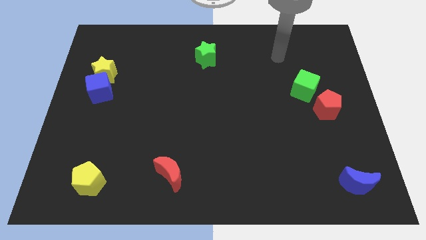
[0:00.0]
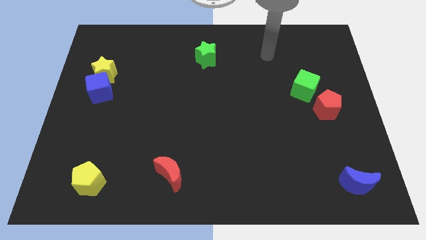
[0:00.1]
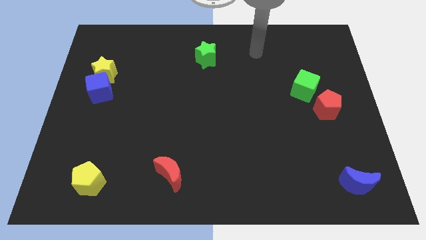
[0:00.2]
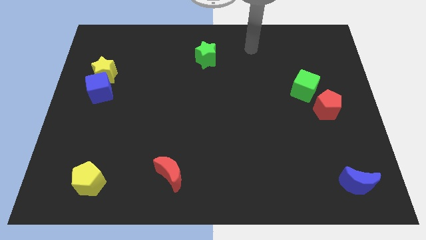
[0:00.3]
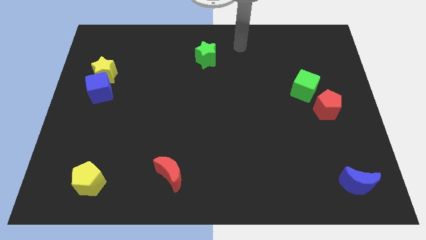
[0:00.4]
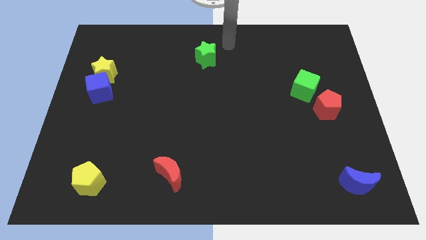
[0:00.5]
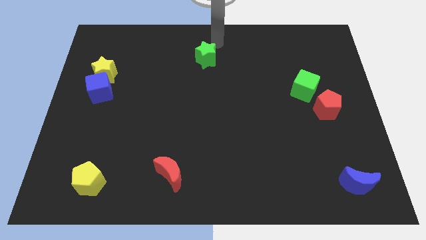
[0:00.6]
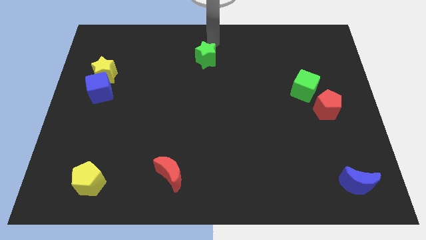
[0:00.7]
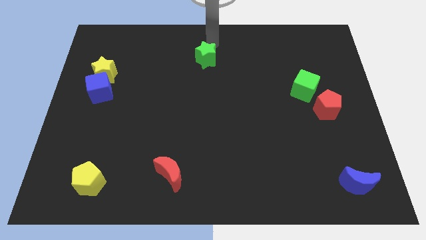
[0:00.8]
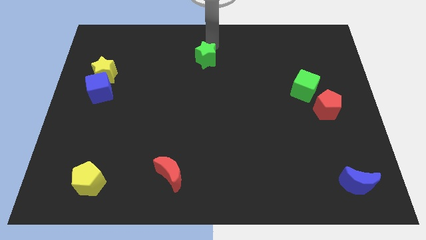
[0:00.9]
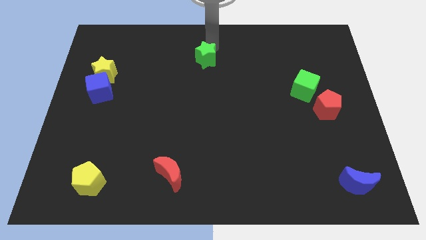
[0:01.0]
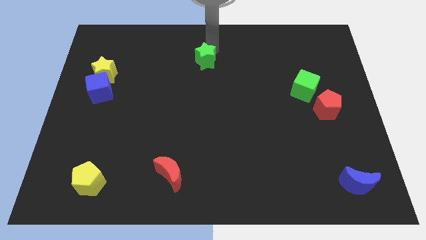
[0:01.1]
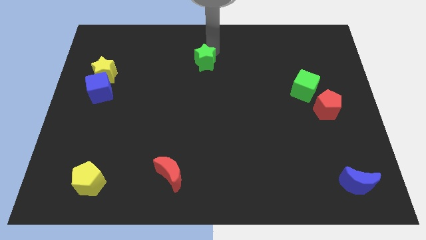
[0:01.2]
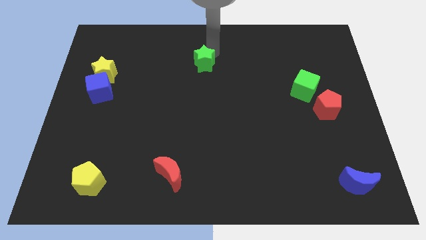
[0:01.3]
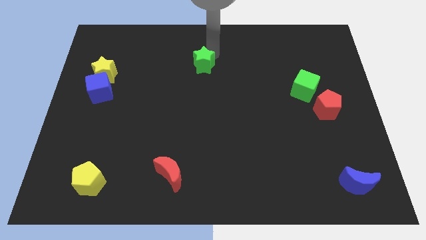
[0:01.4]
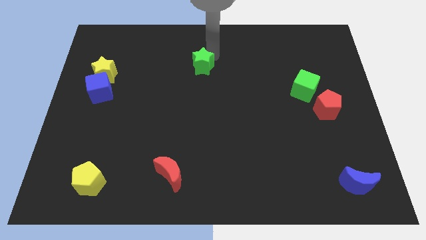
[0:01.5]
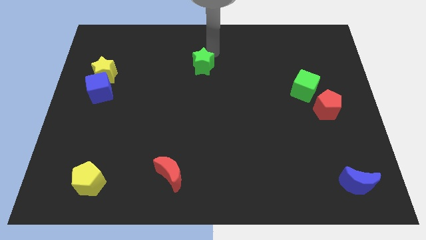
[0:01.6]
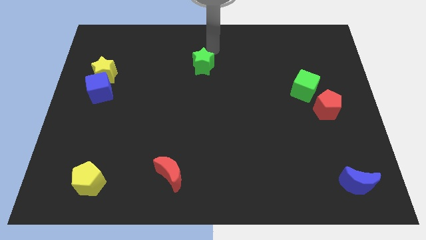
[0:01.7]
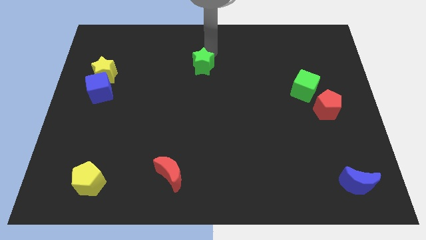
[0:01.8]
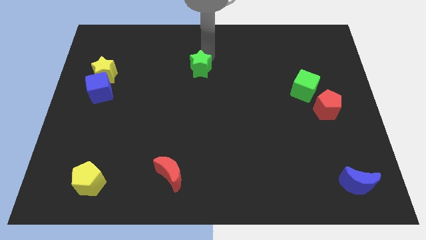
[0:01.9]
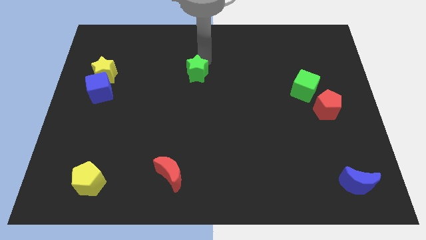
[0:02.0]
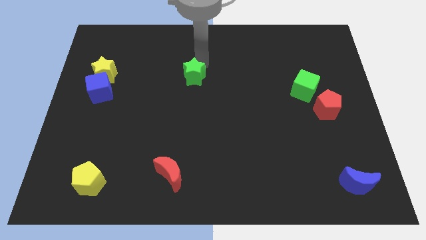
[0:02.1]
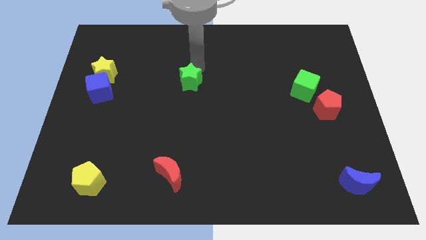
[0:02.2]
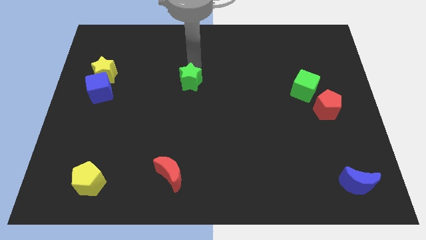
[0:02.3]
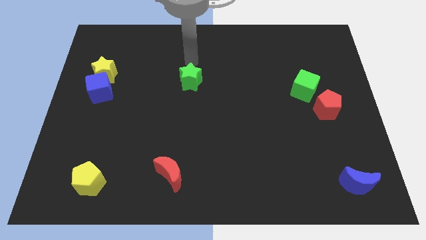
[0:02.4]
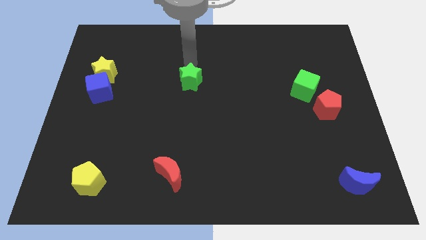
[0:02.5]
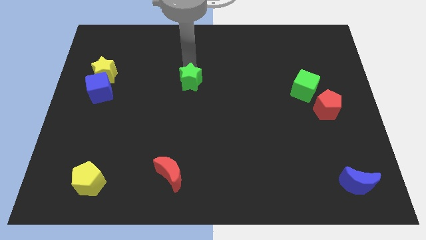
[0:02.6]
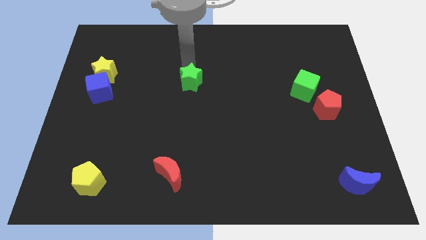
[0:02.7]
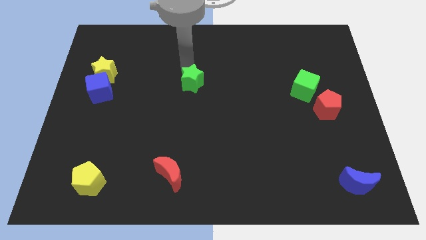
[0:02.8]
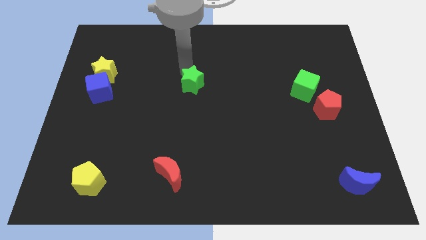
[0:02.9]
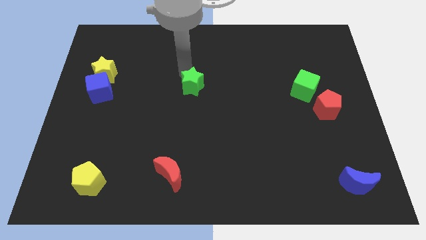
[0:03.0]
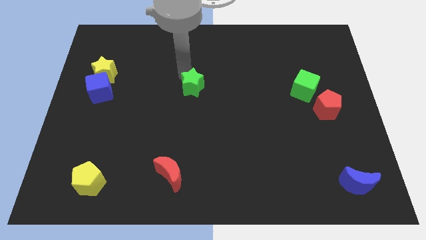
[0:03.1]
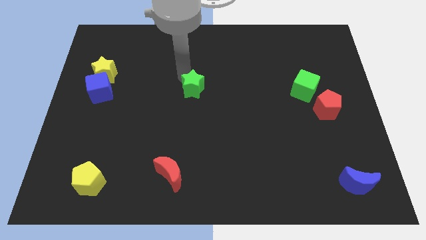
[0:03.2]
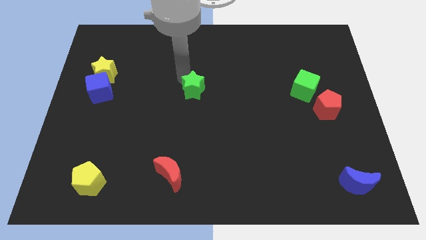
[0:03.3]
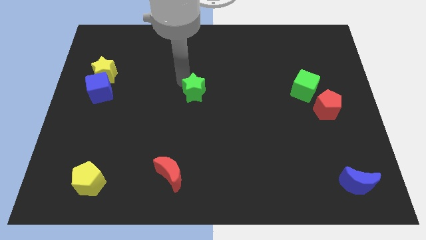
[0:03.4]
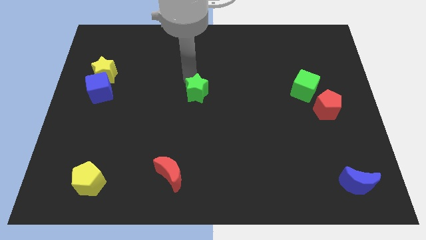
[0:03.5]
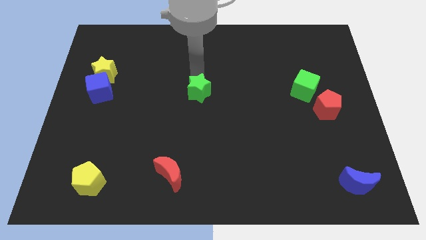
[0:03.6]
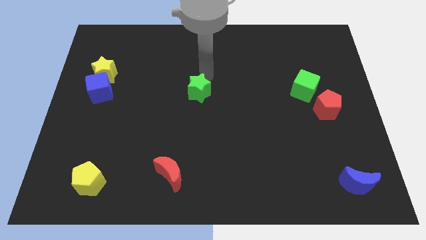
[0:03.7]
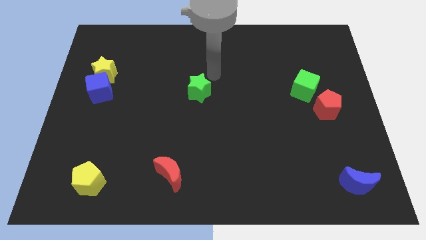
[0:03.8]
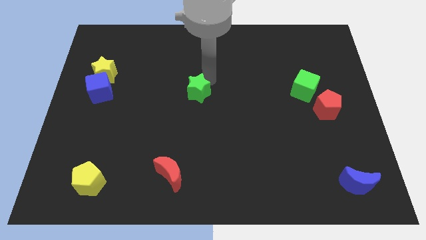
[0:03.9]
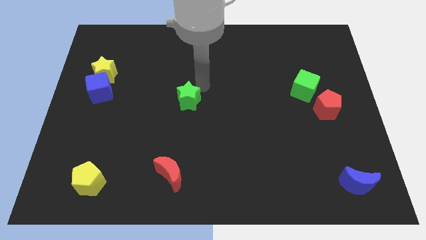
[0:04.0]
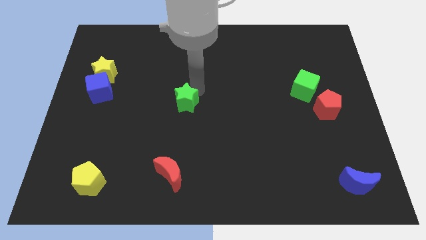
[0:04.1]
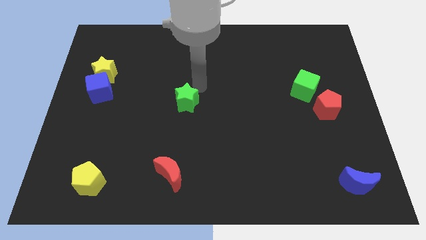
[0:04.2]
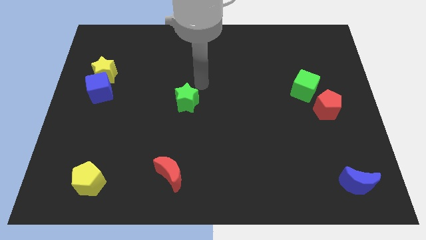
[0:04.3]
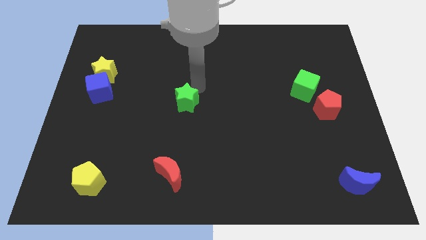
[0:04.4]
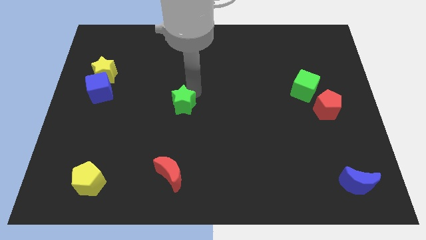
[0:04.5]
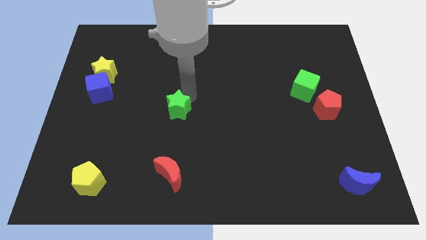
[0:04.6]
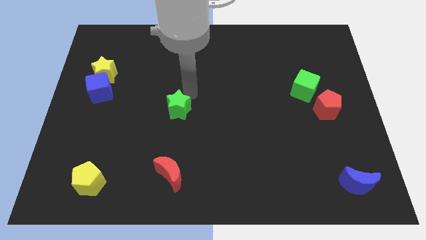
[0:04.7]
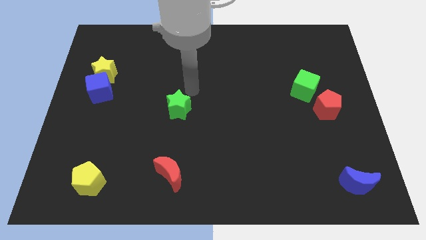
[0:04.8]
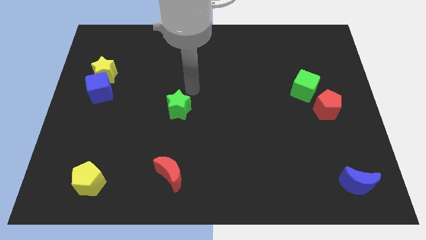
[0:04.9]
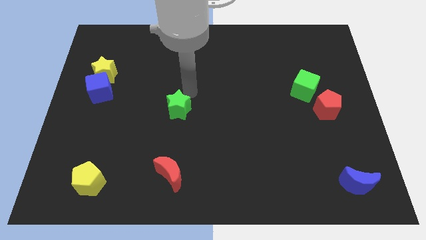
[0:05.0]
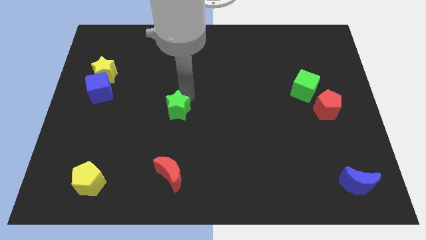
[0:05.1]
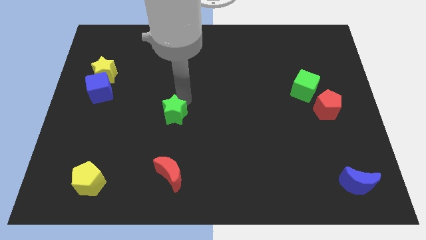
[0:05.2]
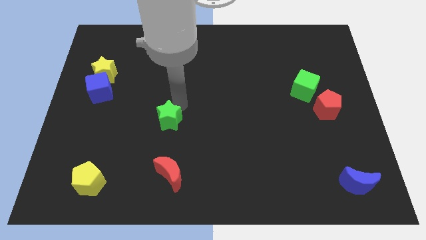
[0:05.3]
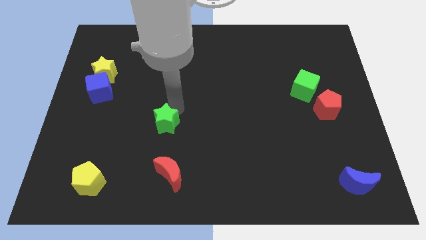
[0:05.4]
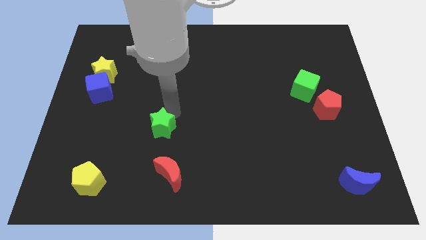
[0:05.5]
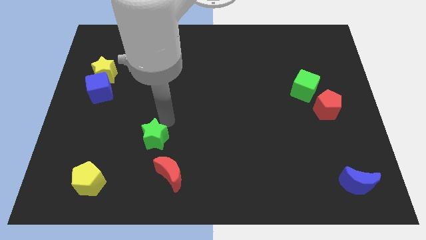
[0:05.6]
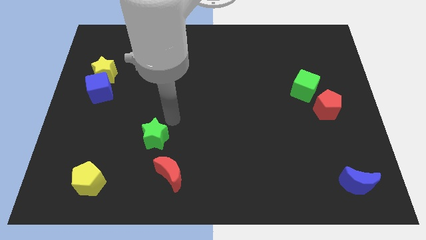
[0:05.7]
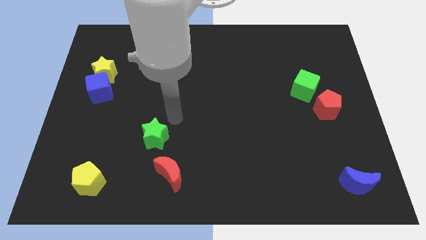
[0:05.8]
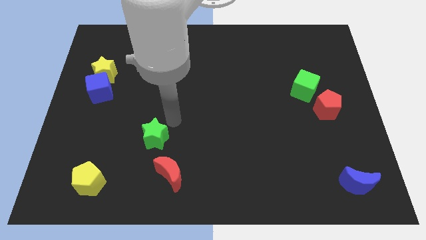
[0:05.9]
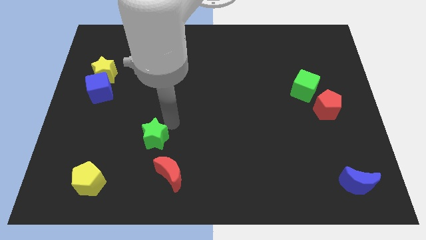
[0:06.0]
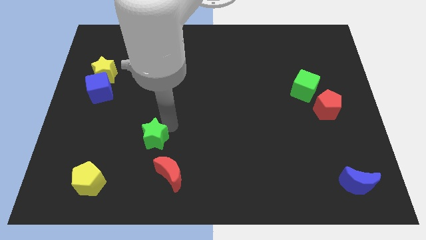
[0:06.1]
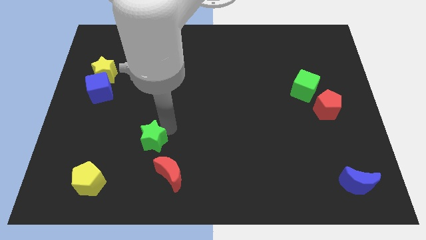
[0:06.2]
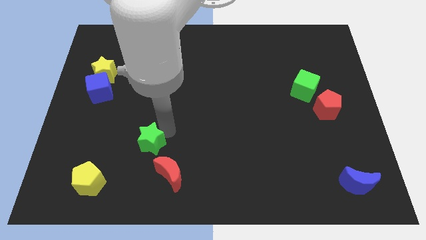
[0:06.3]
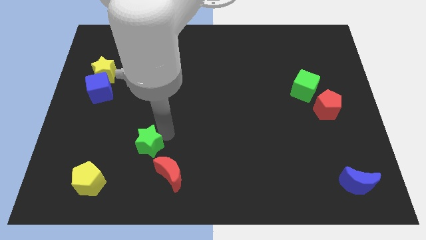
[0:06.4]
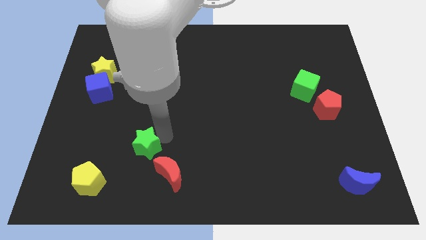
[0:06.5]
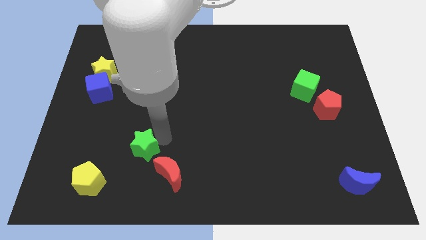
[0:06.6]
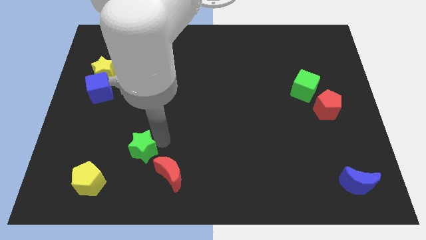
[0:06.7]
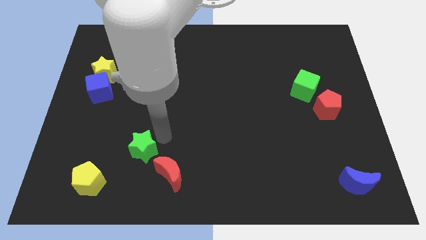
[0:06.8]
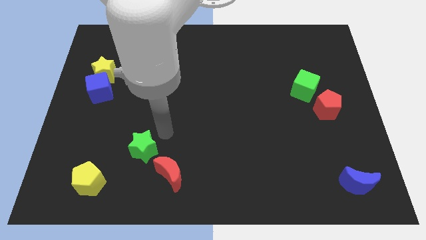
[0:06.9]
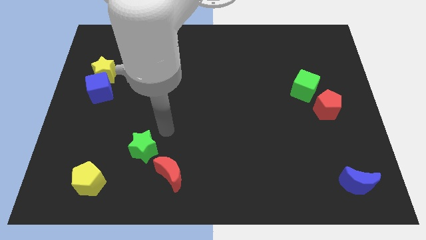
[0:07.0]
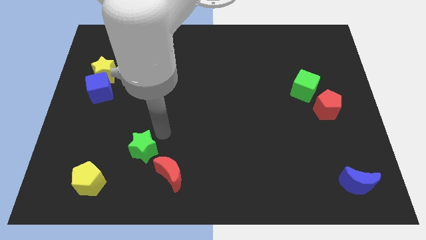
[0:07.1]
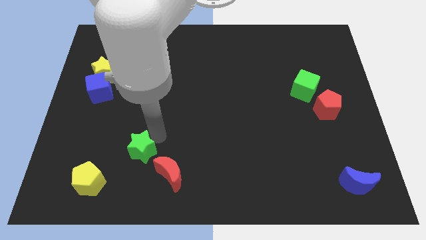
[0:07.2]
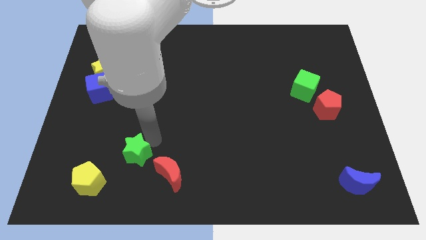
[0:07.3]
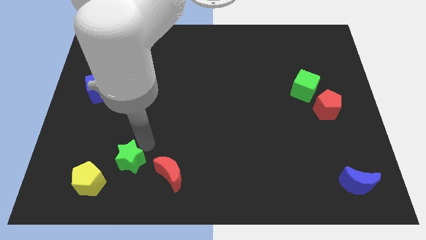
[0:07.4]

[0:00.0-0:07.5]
move the green star to the left side of the red moon
